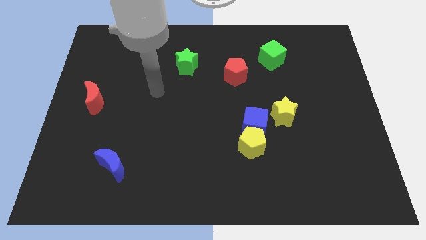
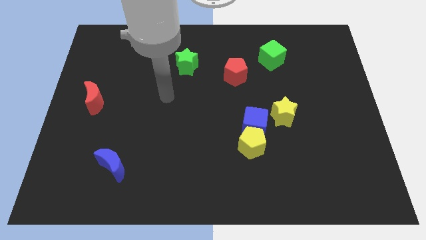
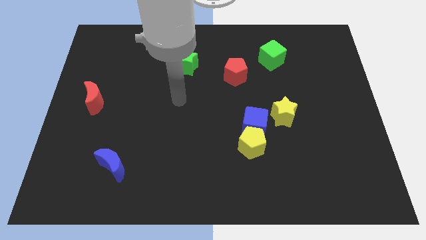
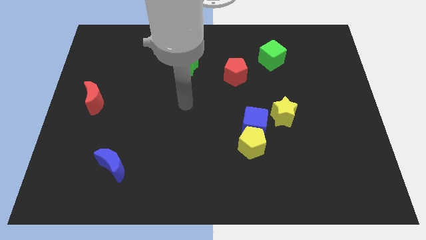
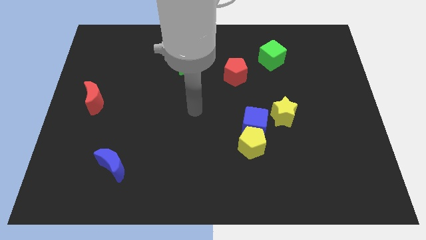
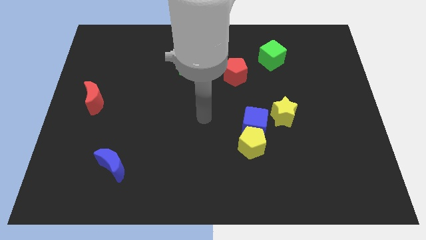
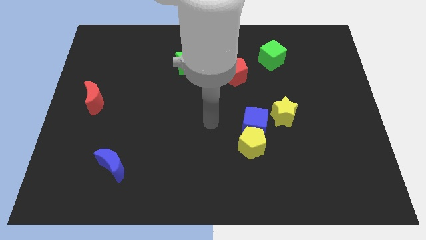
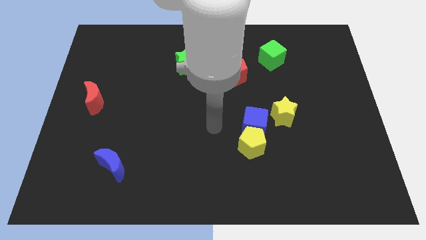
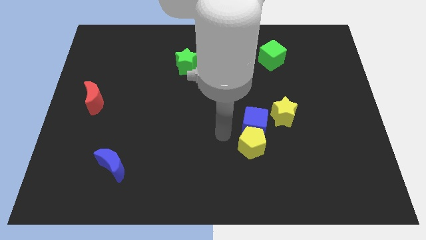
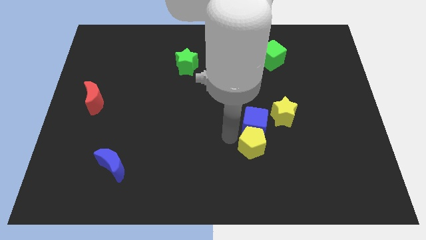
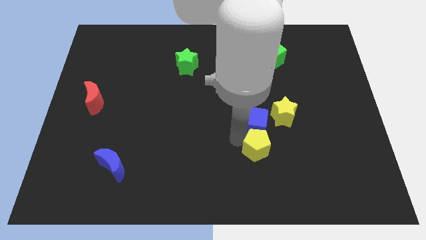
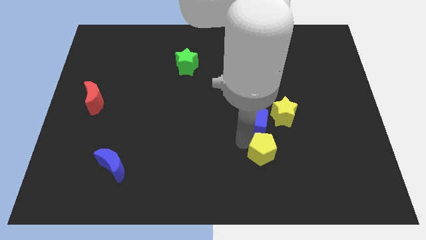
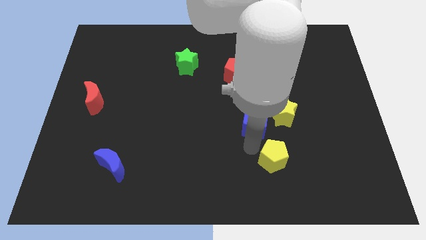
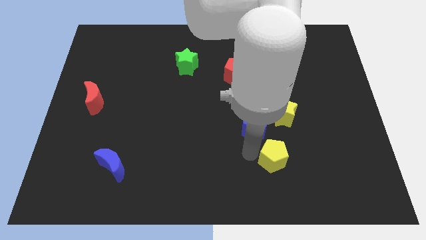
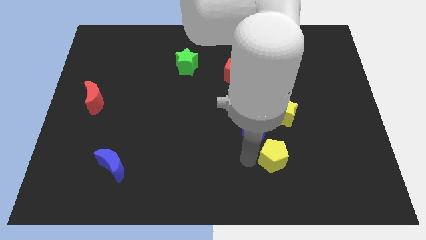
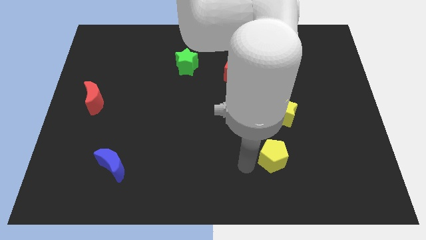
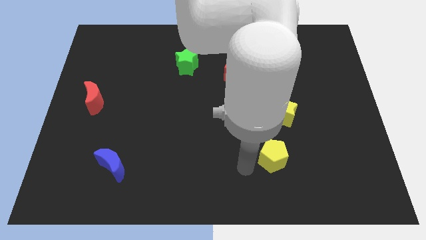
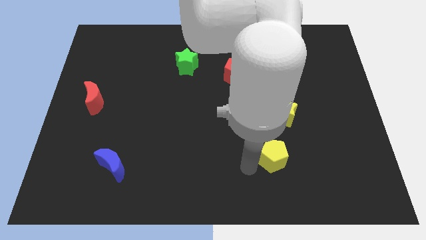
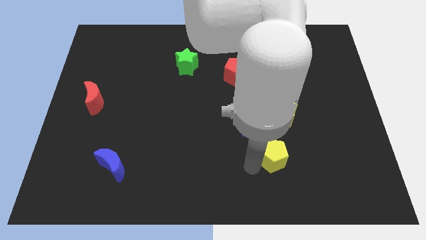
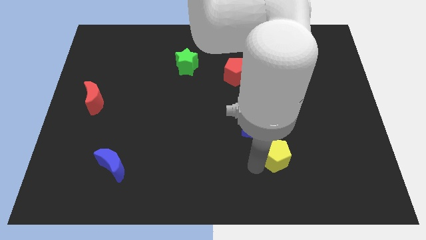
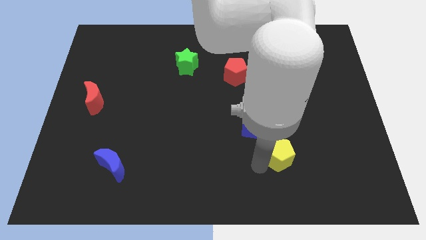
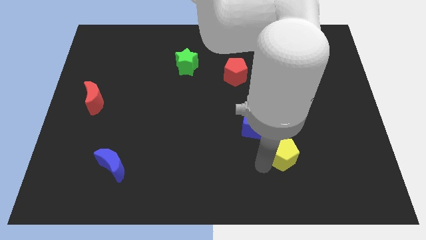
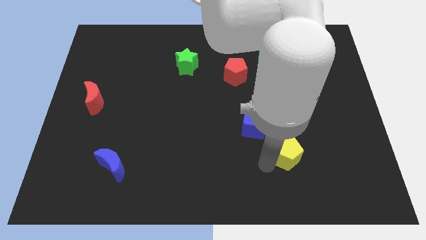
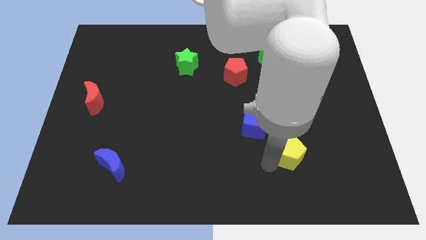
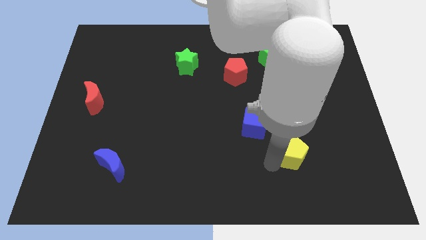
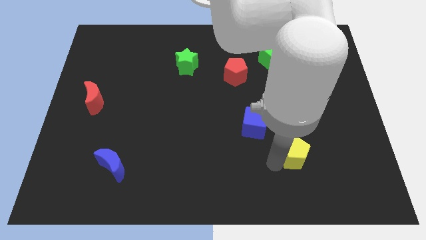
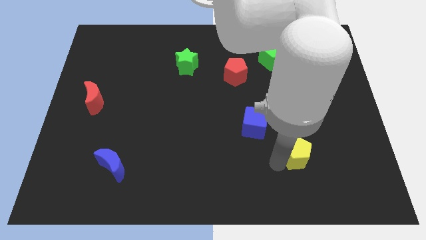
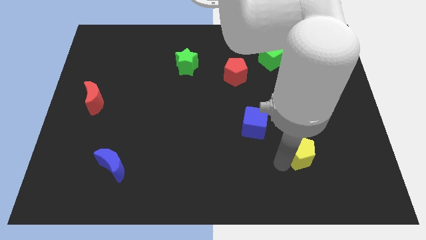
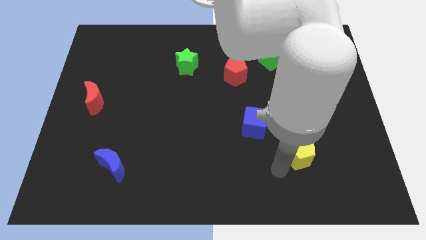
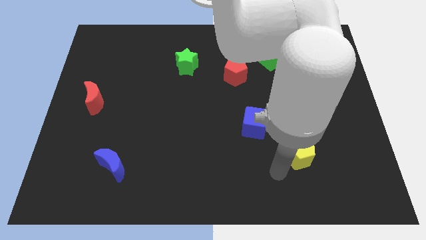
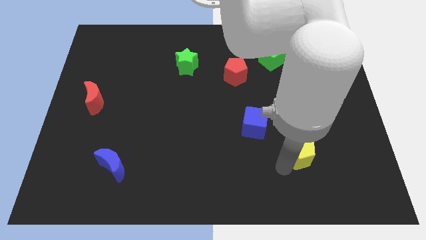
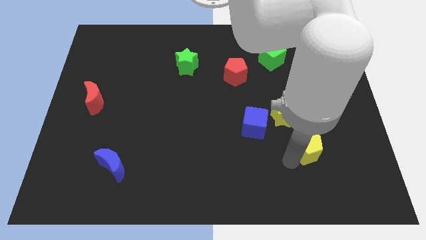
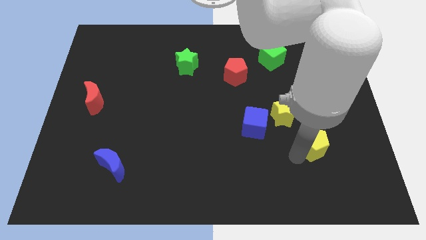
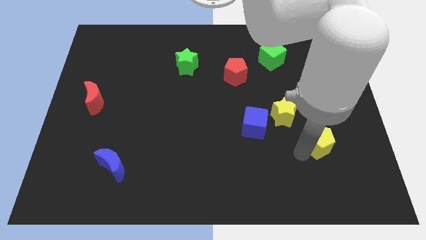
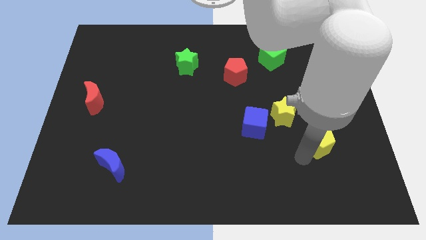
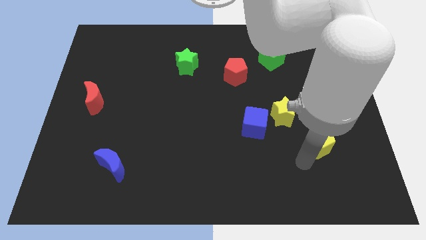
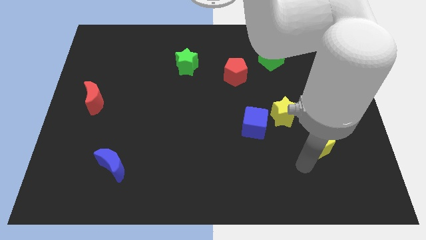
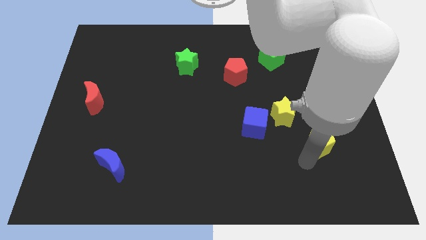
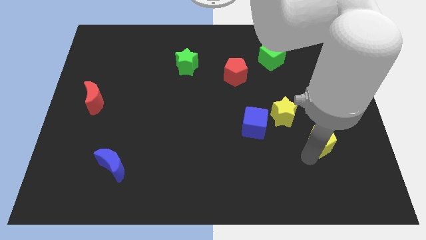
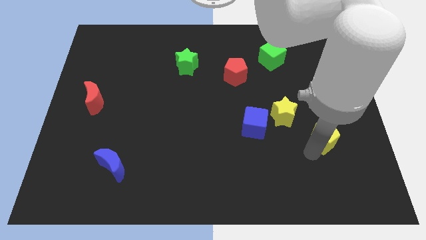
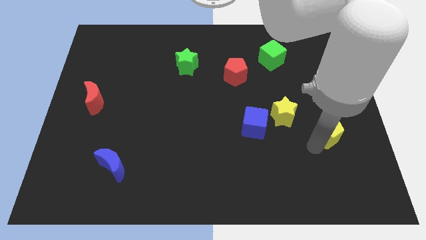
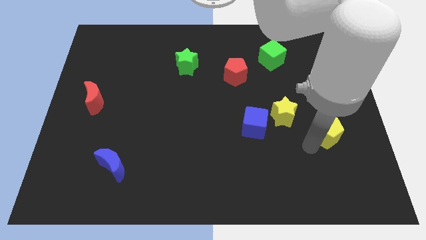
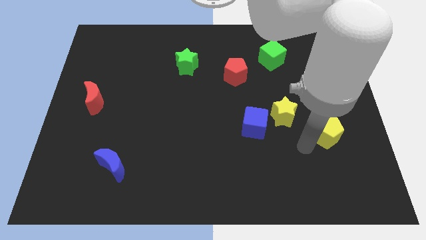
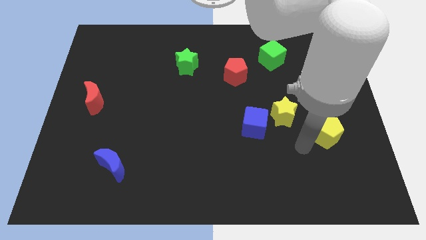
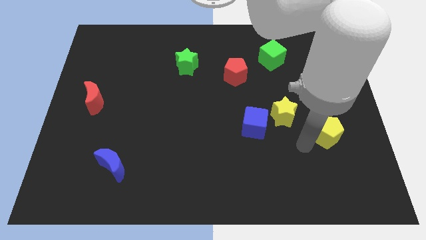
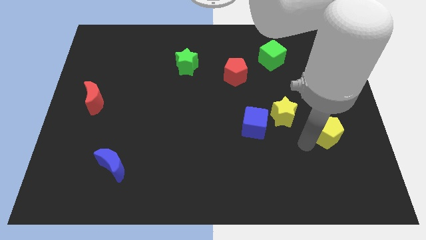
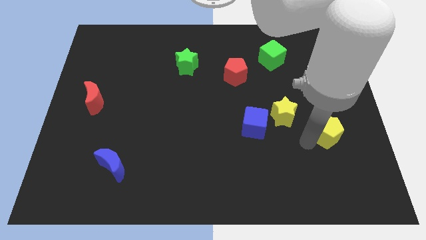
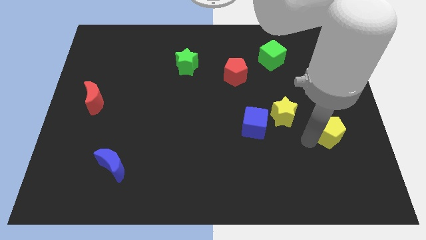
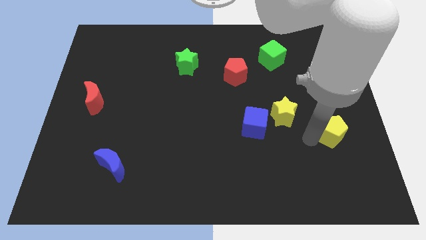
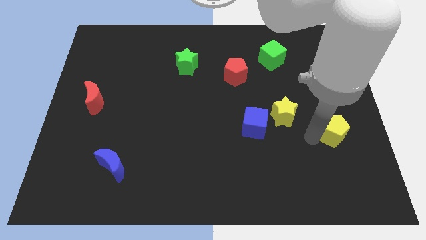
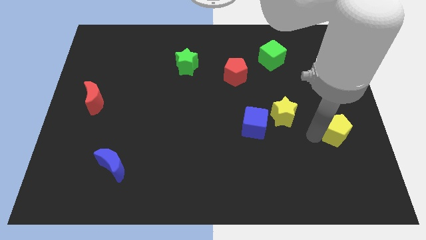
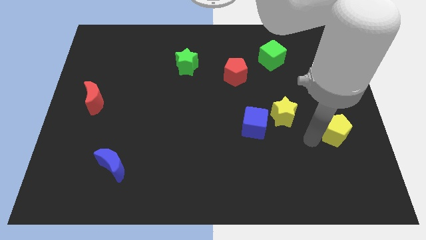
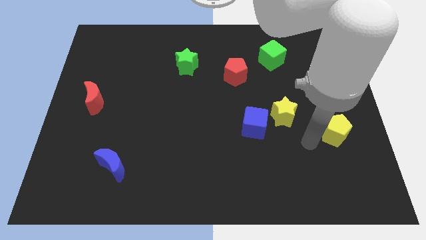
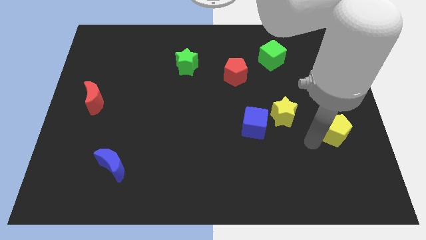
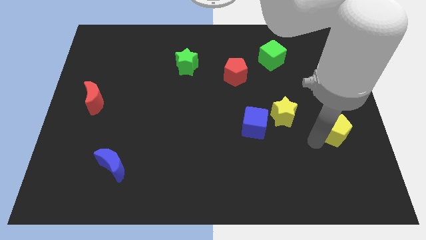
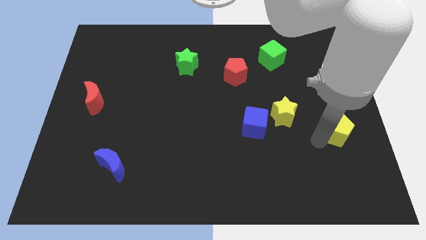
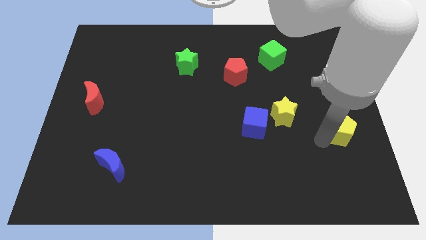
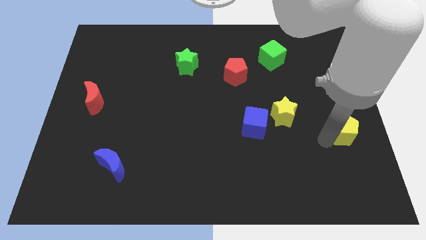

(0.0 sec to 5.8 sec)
move the yellow pentagon to the right side of the board
